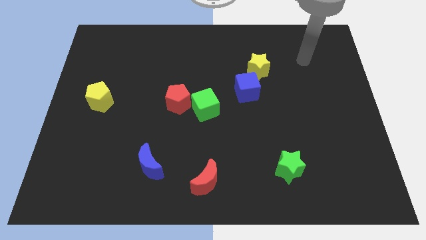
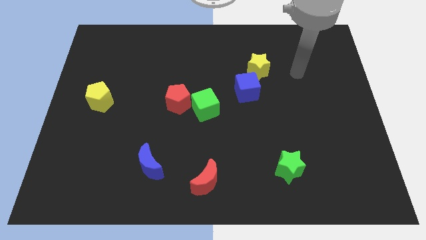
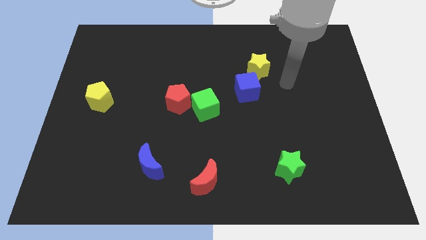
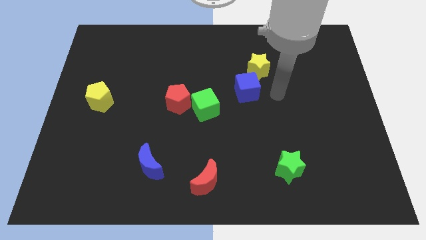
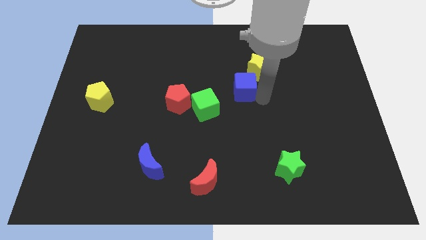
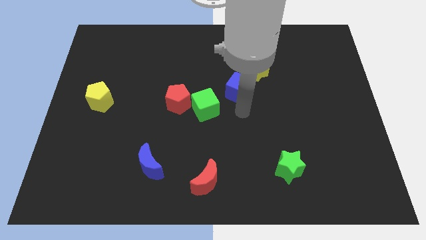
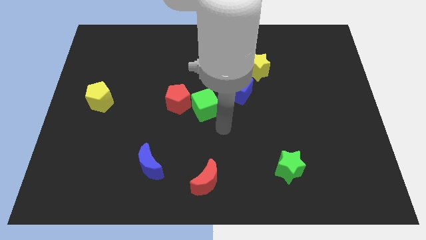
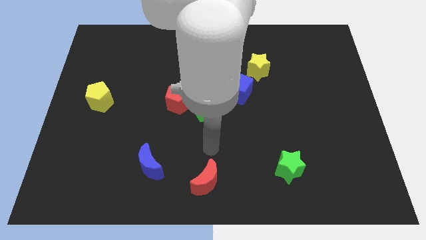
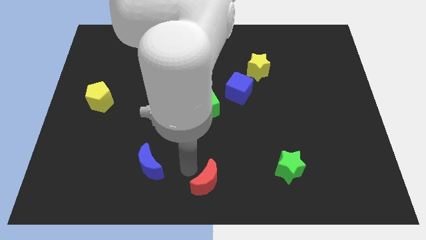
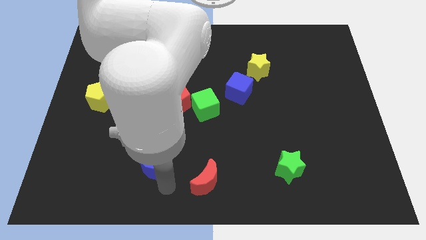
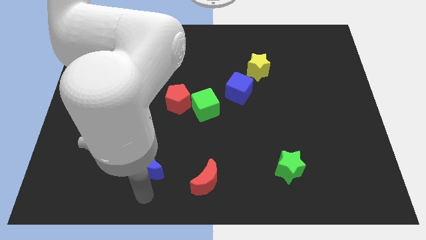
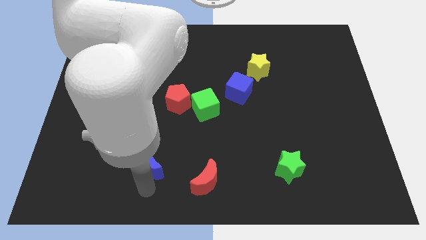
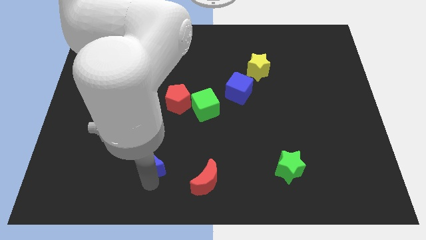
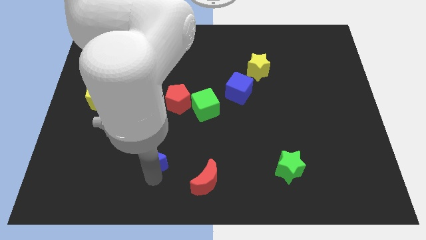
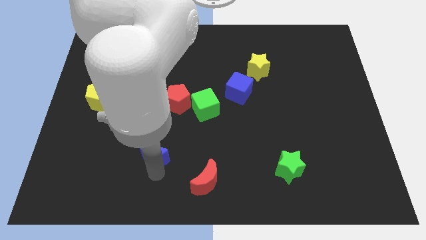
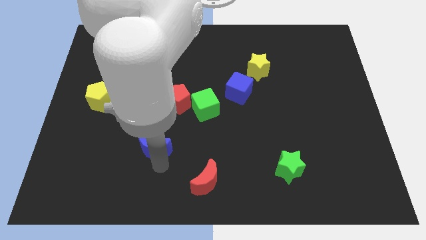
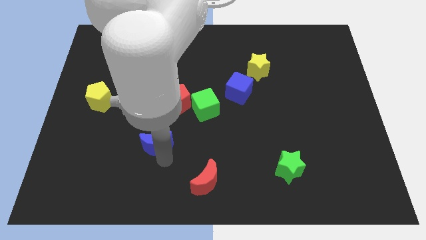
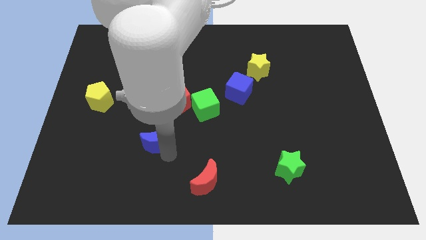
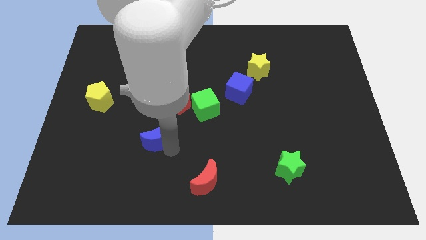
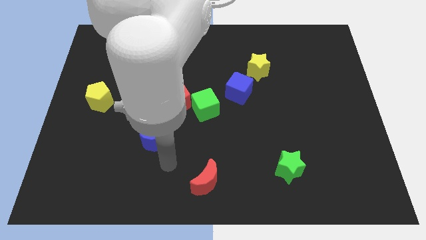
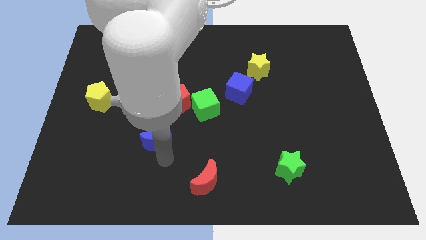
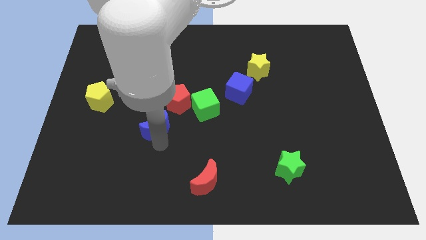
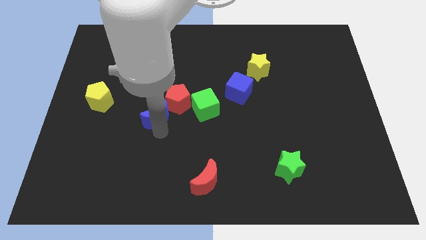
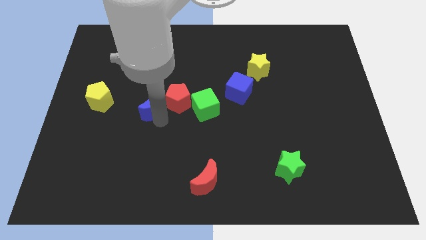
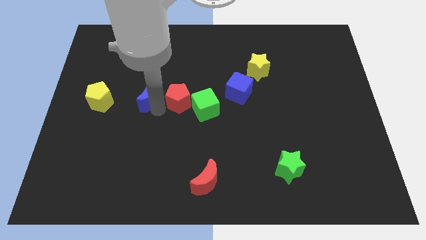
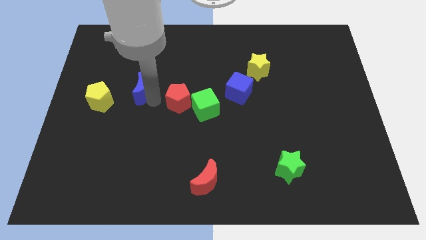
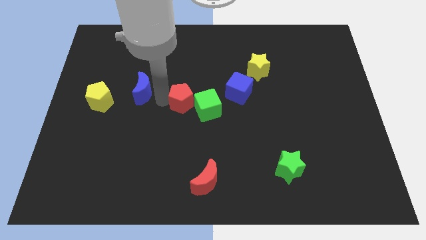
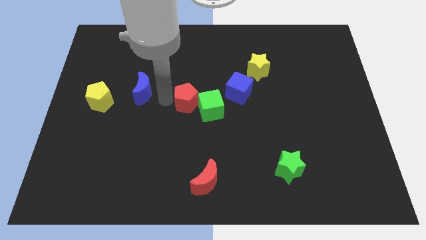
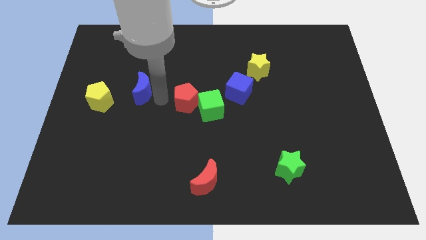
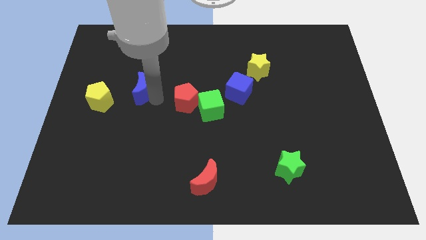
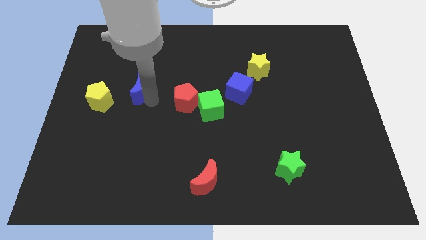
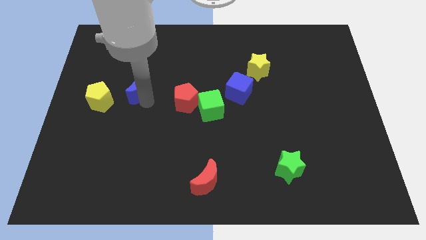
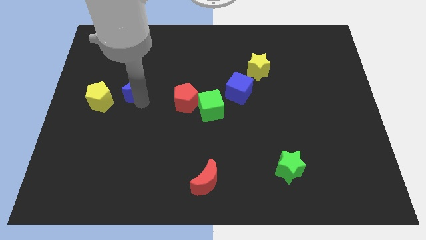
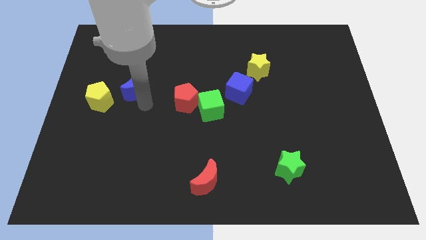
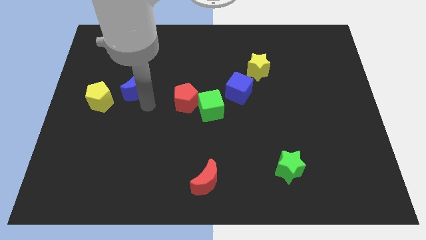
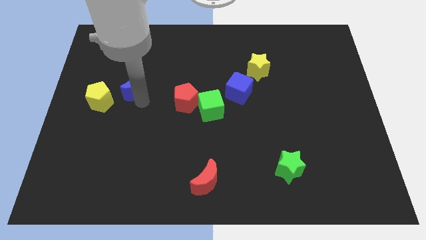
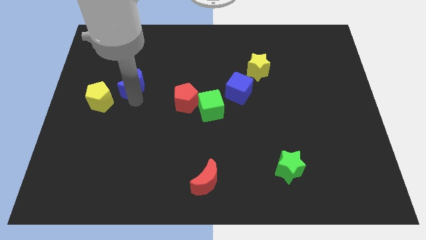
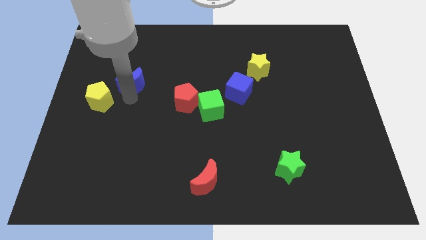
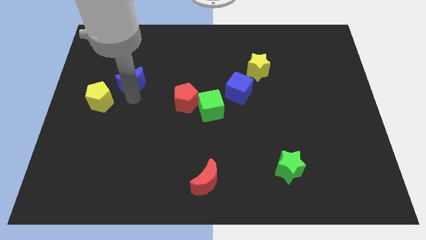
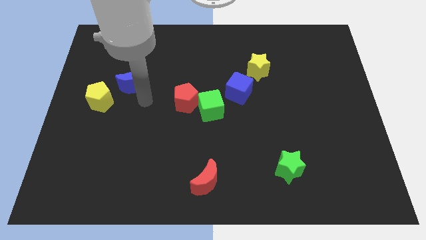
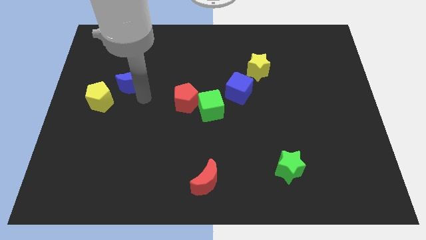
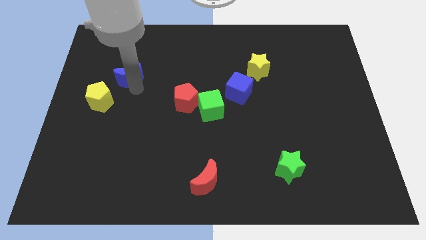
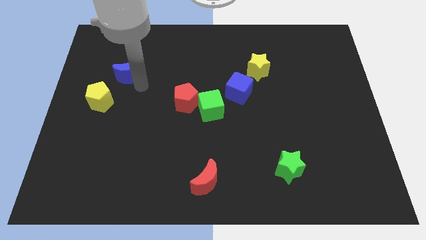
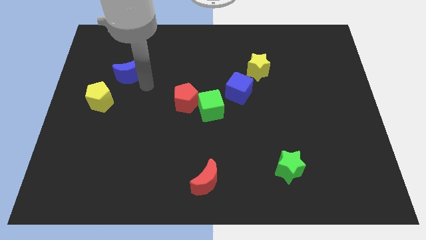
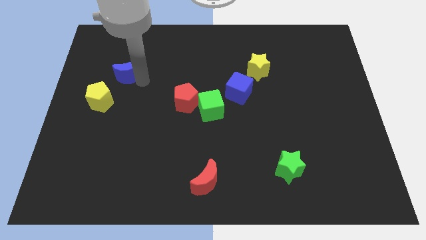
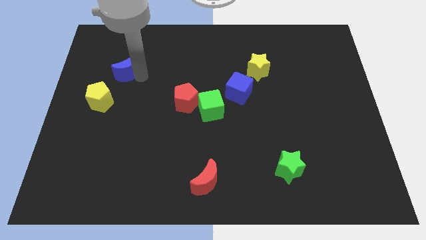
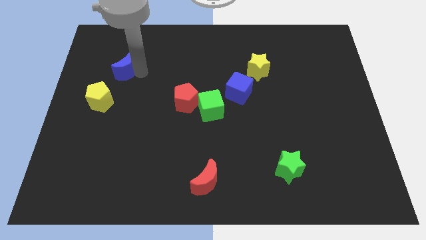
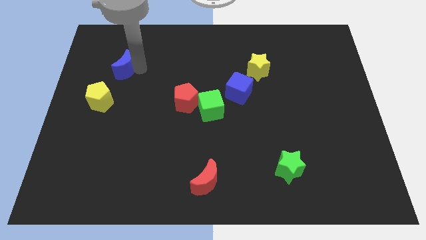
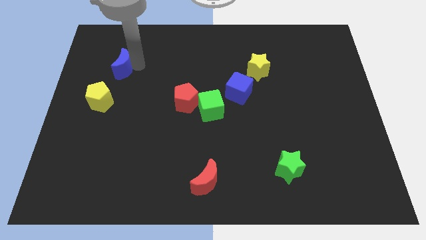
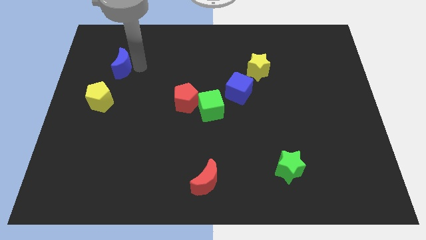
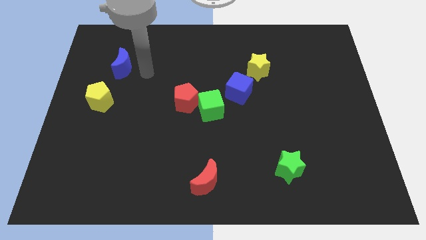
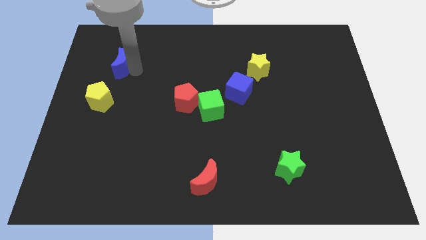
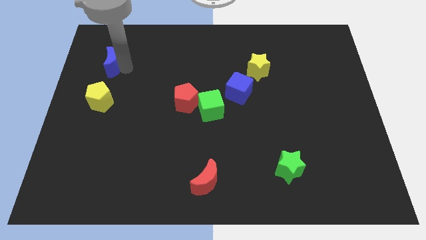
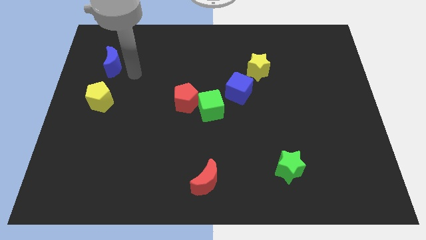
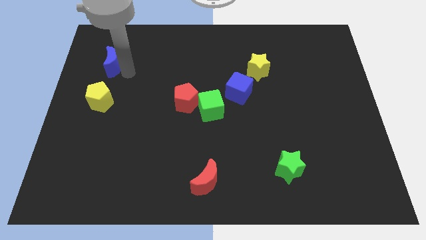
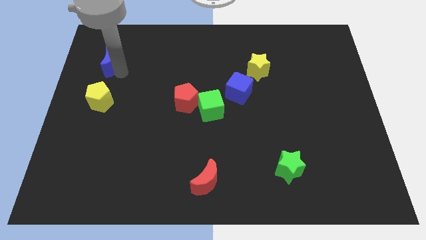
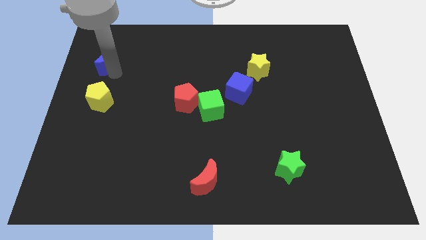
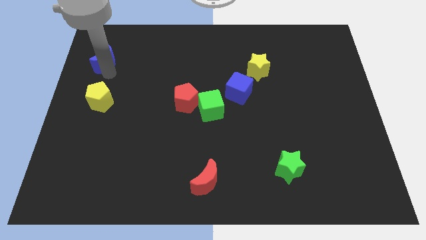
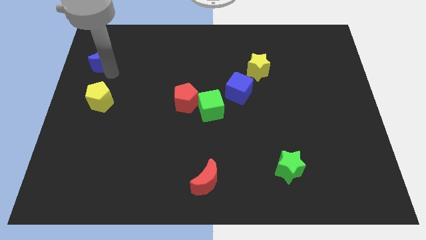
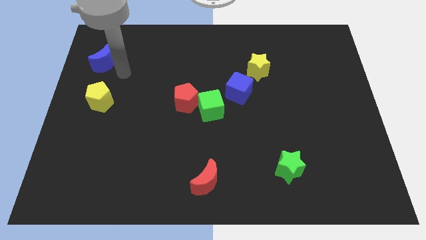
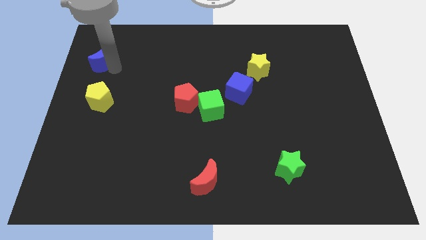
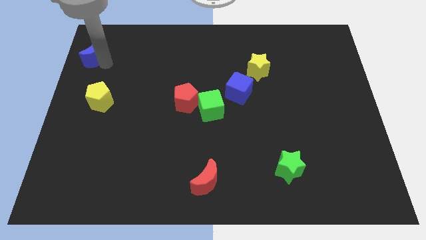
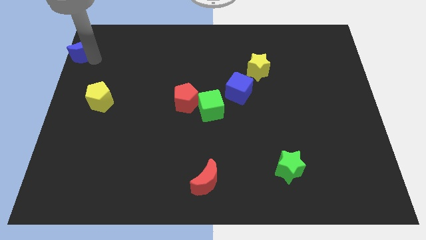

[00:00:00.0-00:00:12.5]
move the blue moon to the top left

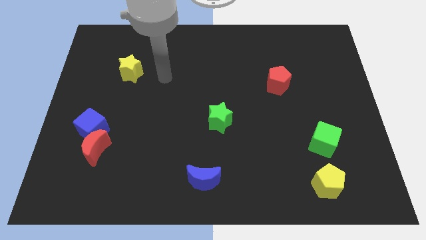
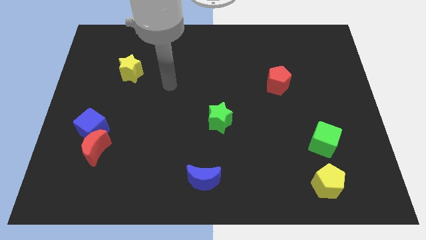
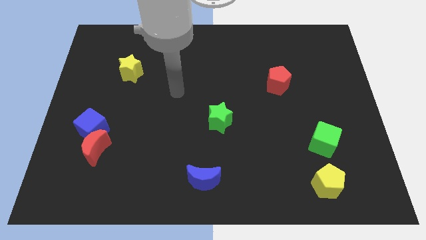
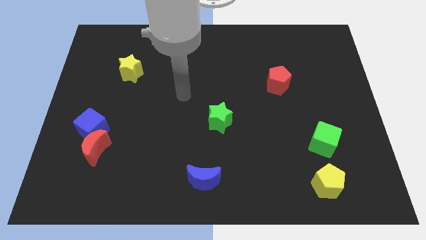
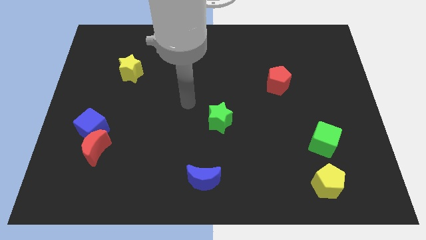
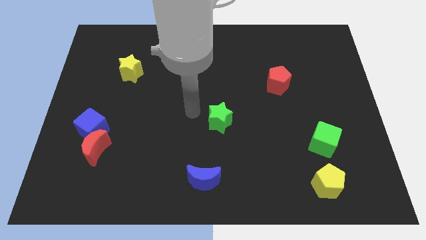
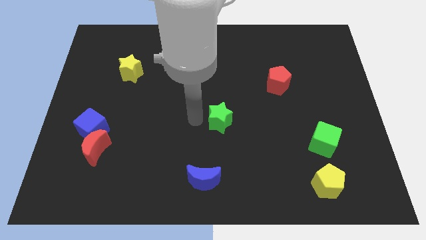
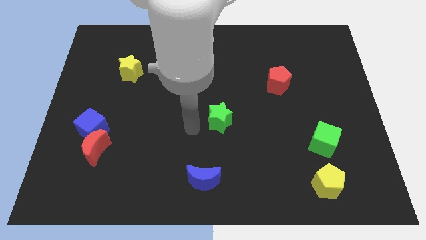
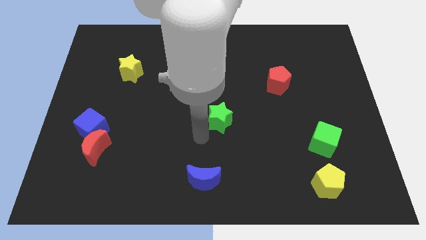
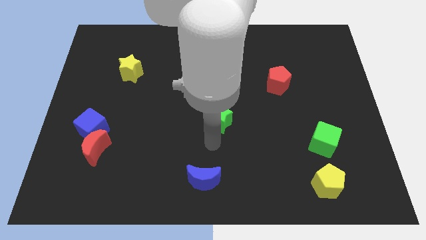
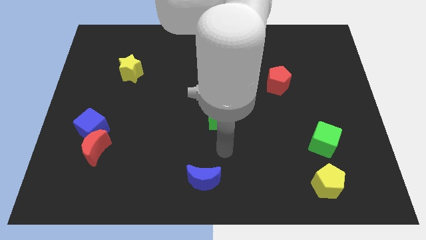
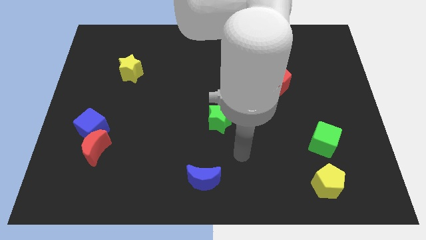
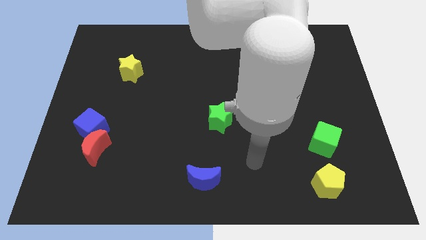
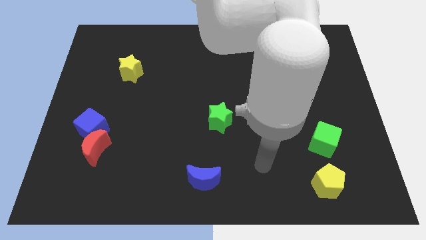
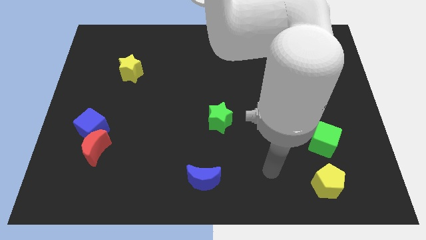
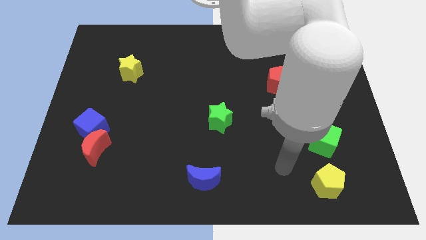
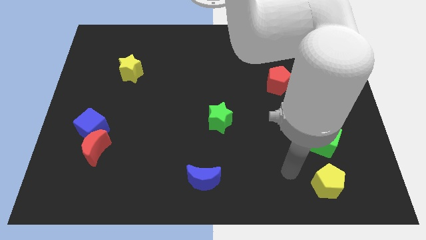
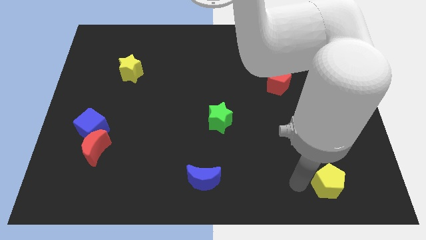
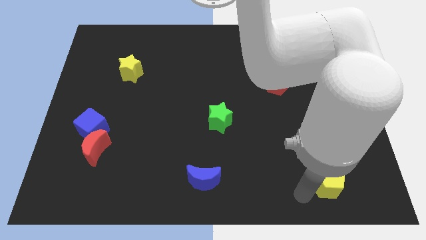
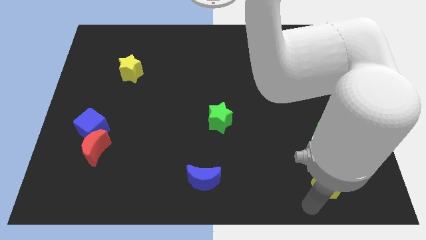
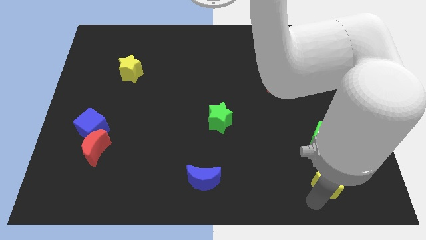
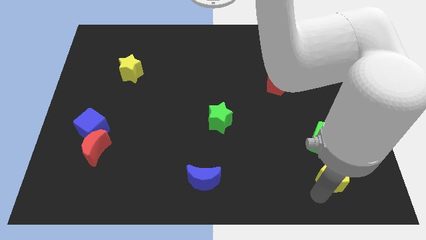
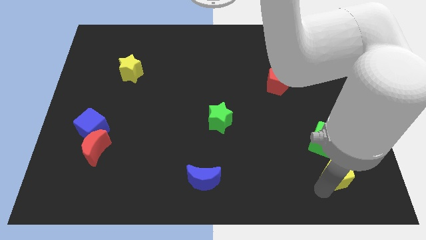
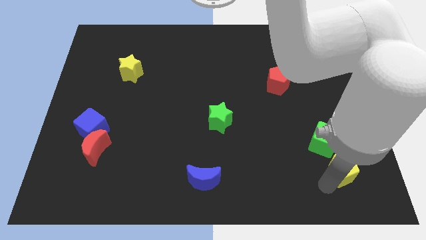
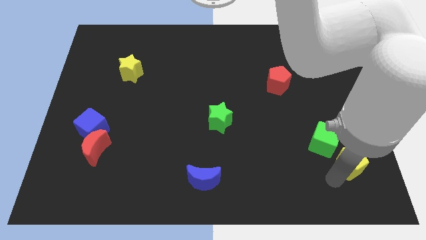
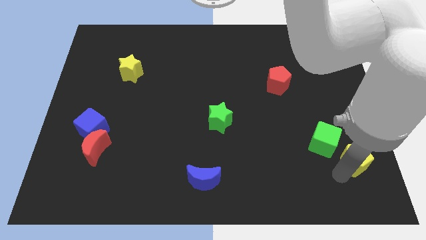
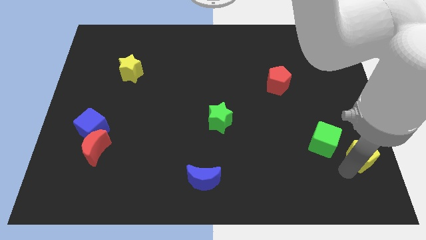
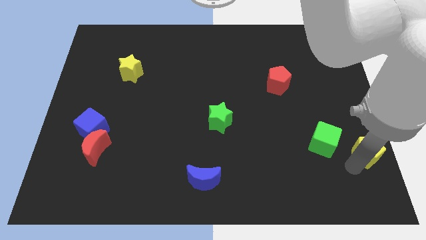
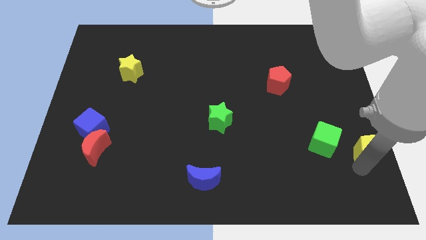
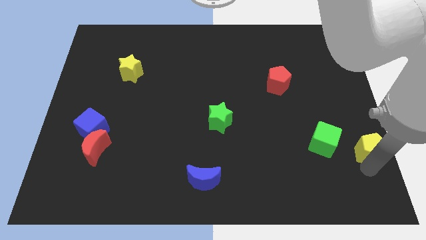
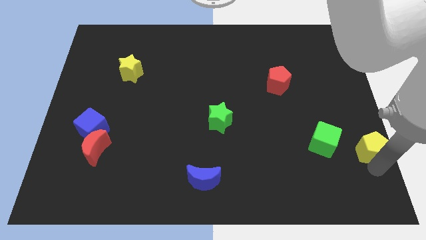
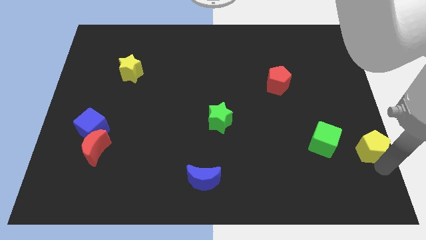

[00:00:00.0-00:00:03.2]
slide the yellow pentagon to the center right
